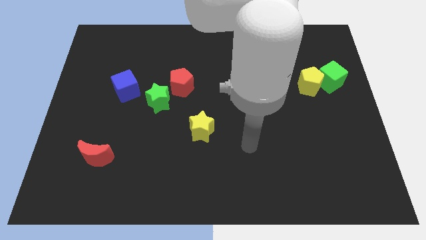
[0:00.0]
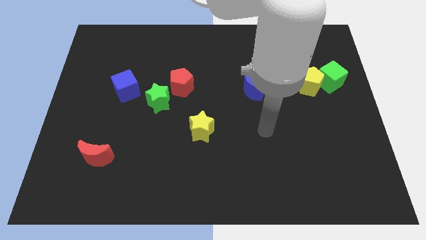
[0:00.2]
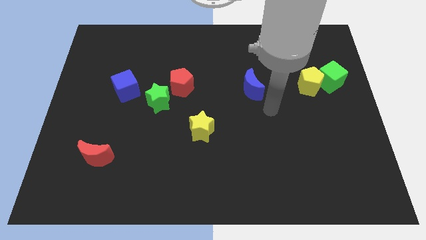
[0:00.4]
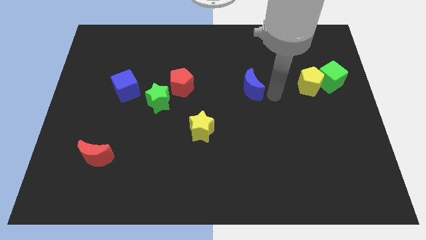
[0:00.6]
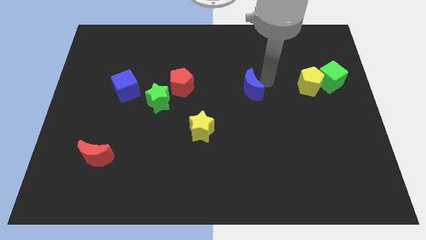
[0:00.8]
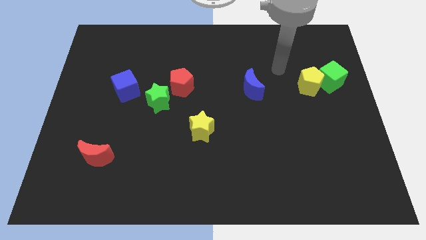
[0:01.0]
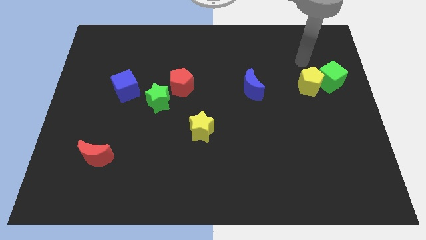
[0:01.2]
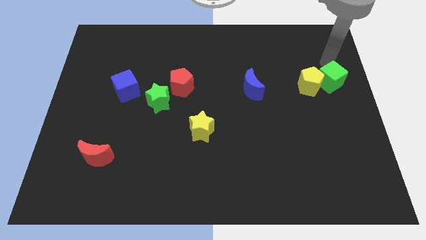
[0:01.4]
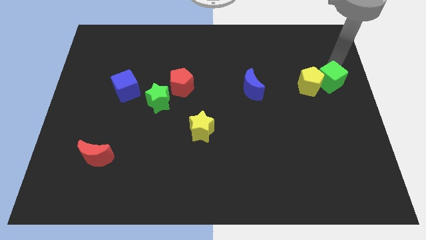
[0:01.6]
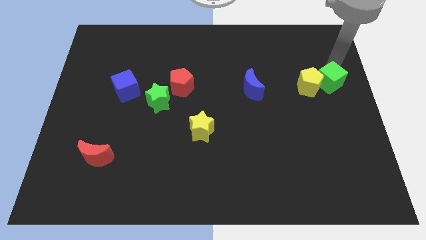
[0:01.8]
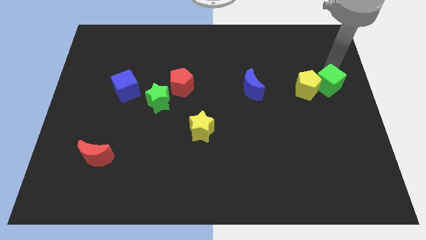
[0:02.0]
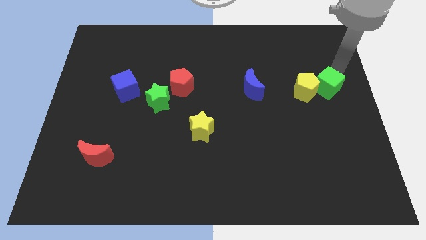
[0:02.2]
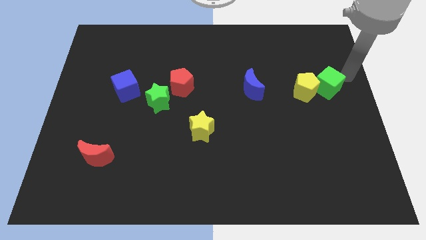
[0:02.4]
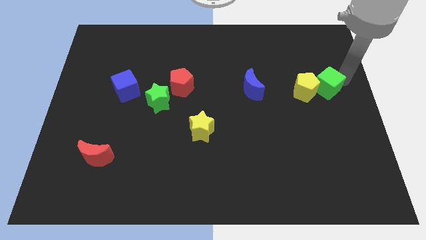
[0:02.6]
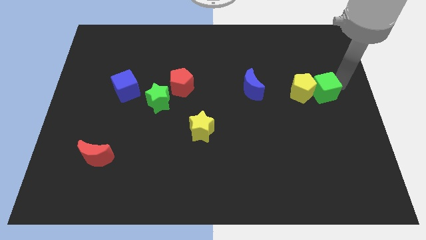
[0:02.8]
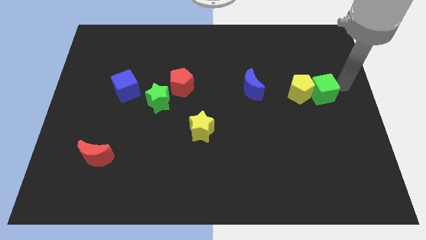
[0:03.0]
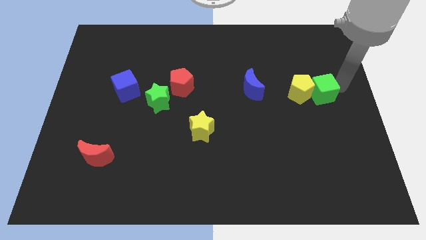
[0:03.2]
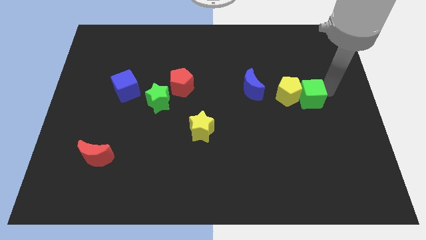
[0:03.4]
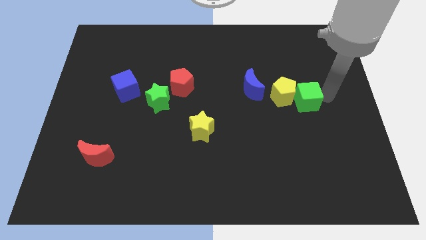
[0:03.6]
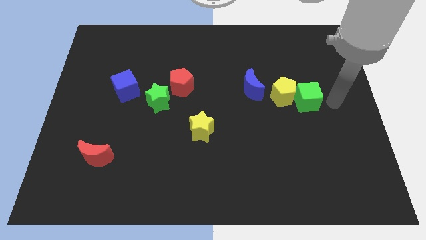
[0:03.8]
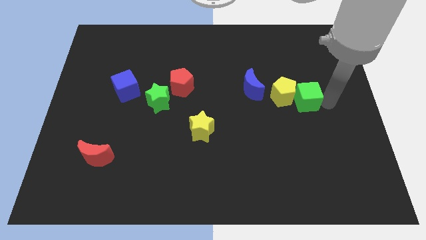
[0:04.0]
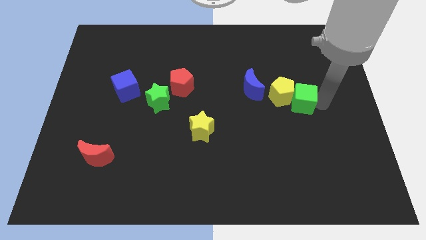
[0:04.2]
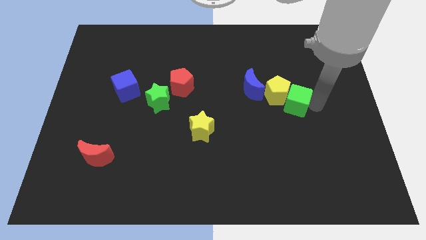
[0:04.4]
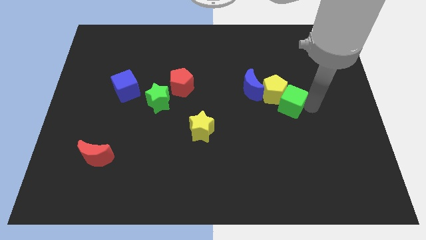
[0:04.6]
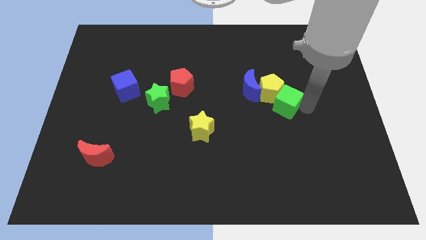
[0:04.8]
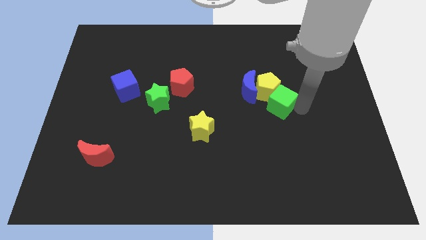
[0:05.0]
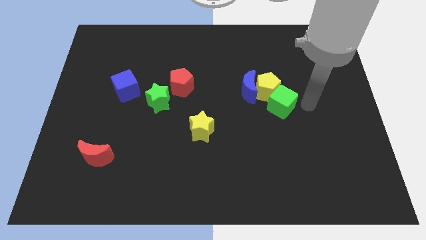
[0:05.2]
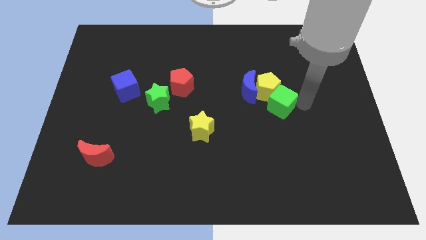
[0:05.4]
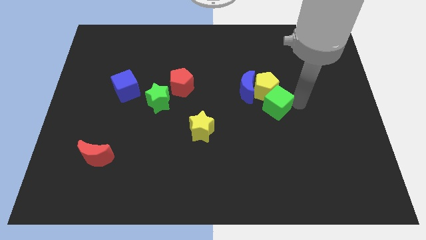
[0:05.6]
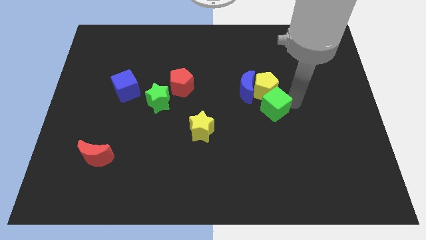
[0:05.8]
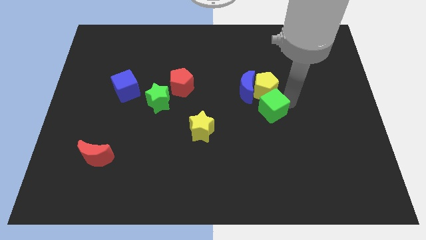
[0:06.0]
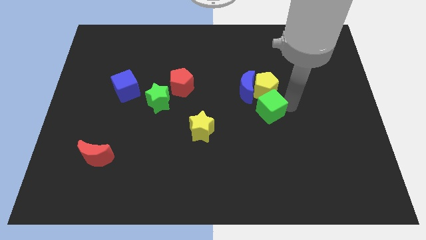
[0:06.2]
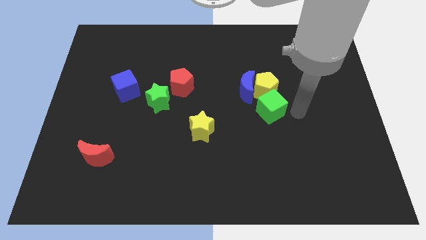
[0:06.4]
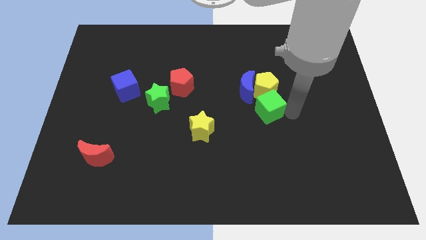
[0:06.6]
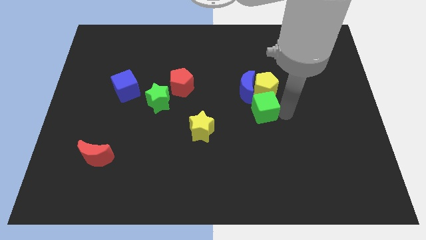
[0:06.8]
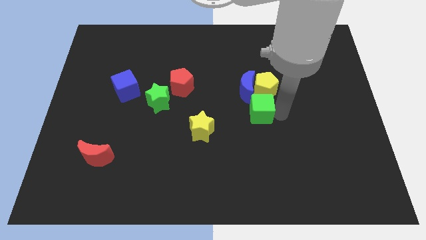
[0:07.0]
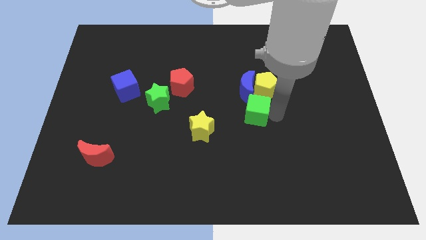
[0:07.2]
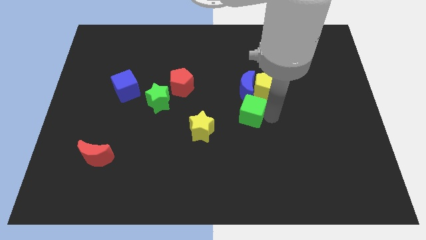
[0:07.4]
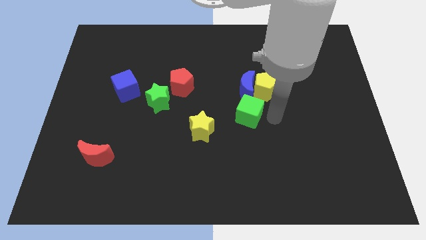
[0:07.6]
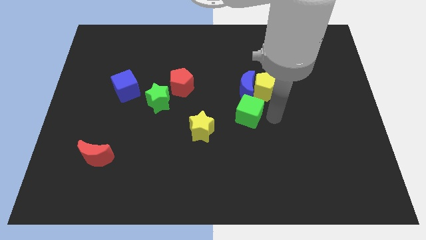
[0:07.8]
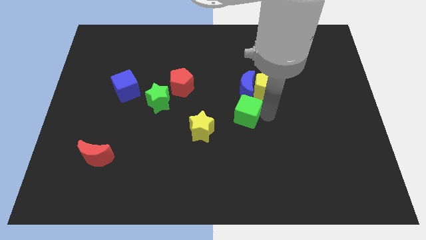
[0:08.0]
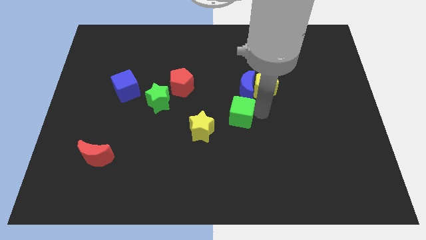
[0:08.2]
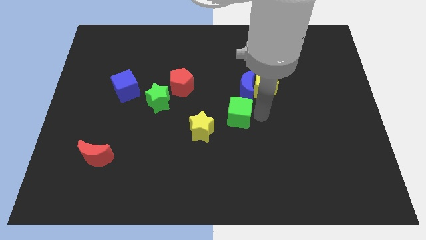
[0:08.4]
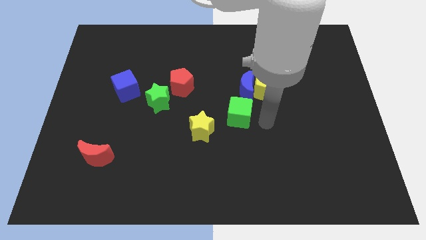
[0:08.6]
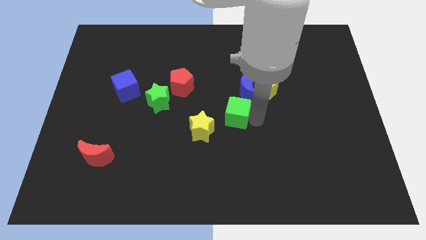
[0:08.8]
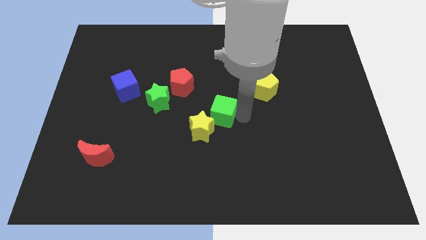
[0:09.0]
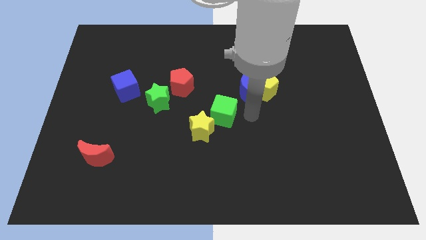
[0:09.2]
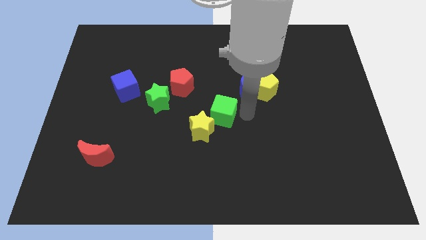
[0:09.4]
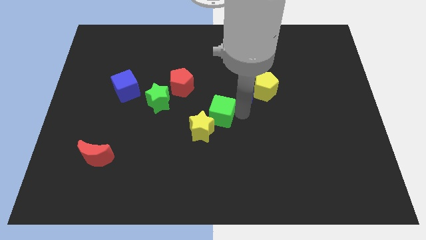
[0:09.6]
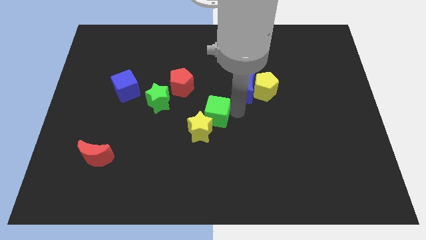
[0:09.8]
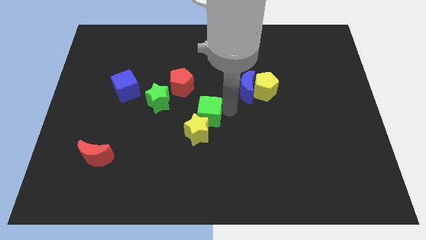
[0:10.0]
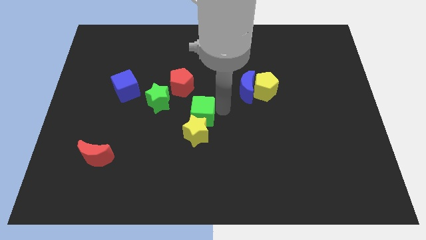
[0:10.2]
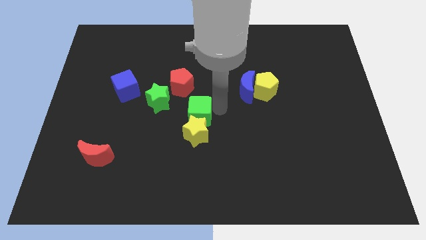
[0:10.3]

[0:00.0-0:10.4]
slide the green cube to the bottom side of the red pentagon

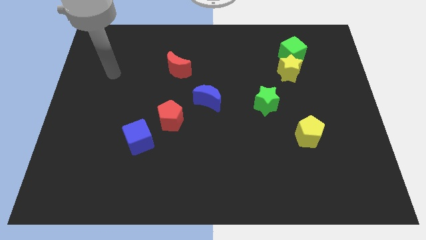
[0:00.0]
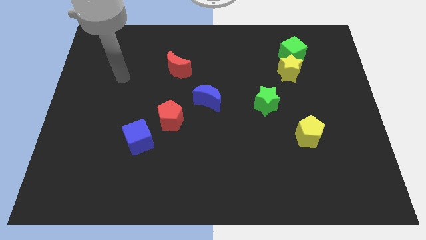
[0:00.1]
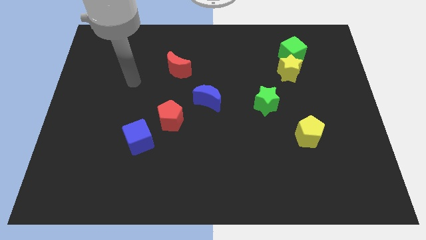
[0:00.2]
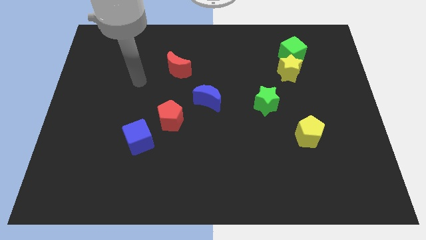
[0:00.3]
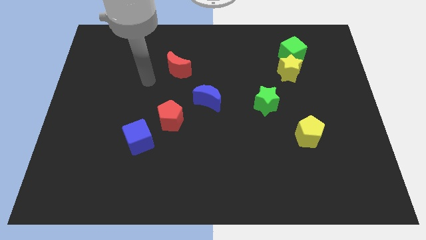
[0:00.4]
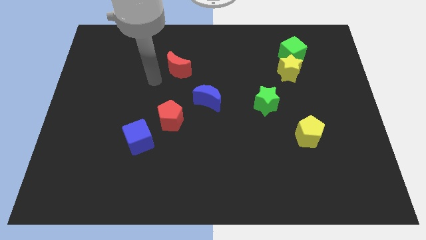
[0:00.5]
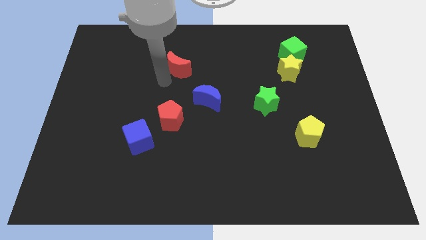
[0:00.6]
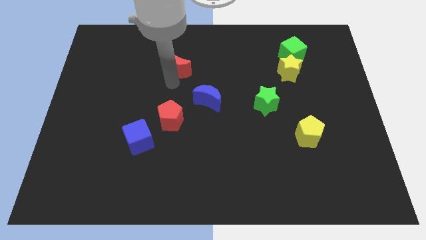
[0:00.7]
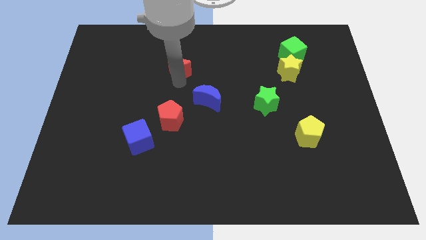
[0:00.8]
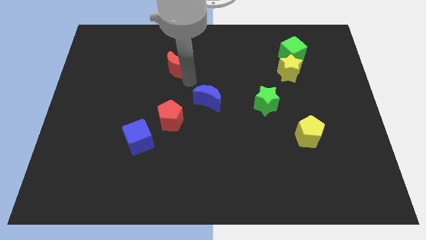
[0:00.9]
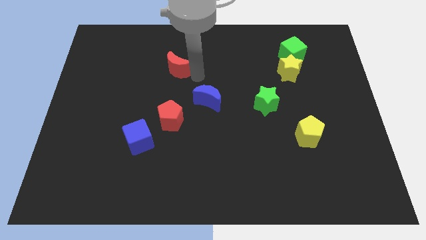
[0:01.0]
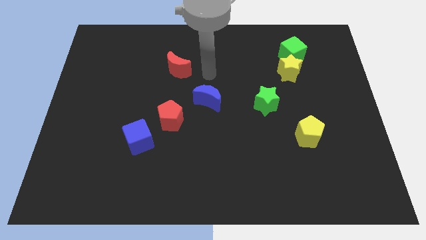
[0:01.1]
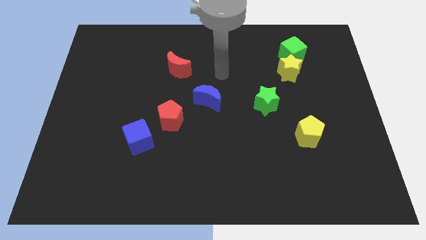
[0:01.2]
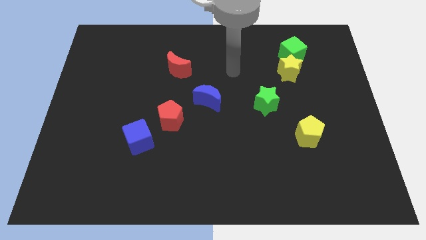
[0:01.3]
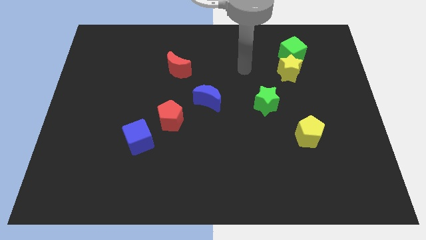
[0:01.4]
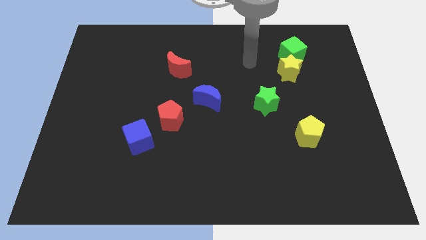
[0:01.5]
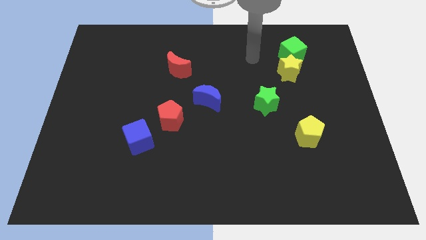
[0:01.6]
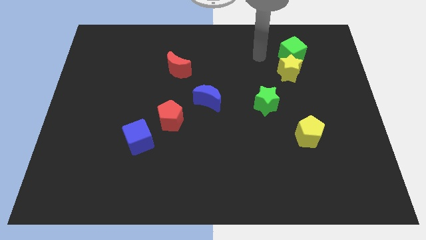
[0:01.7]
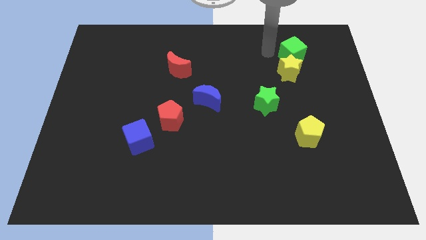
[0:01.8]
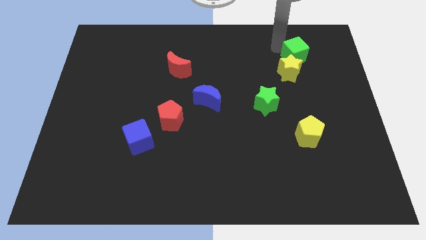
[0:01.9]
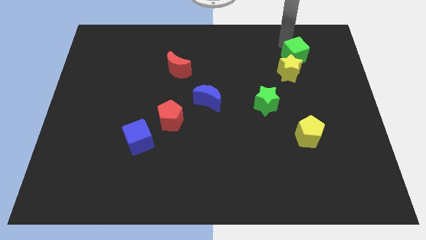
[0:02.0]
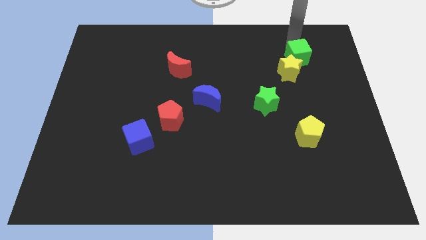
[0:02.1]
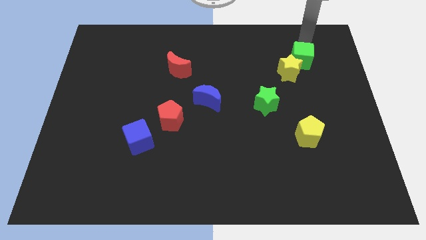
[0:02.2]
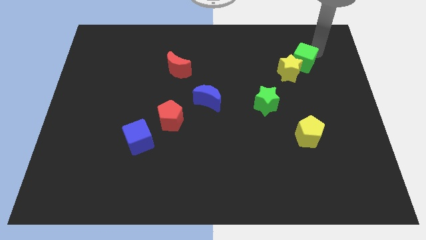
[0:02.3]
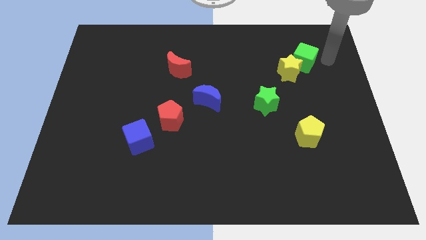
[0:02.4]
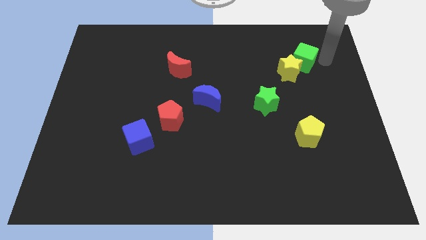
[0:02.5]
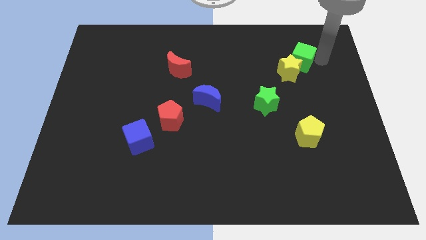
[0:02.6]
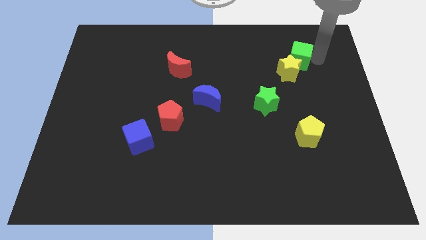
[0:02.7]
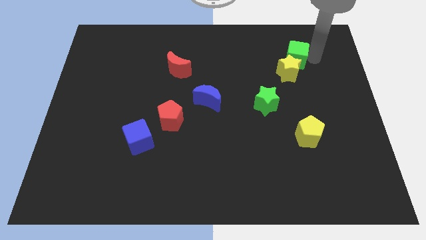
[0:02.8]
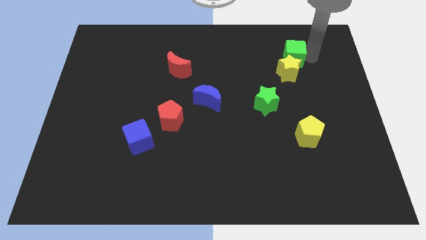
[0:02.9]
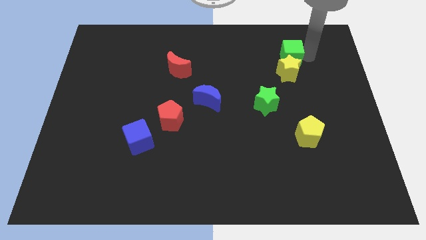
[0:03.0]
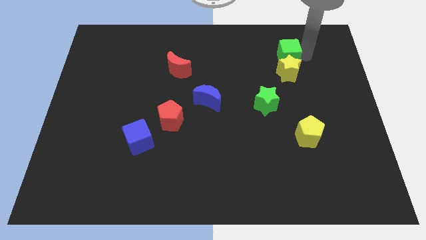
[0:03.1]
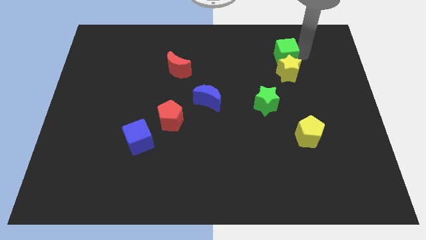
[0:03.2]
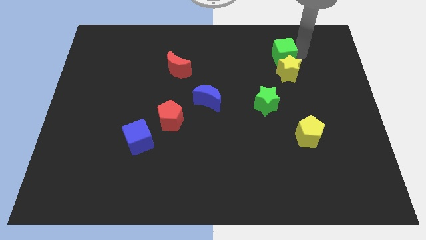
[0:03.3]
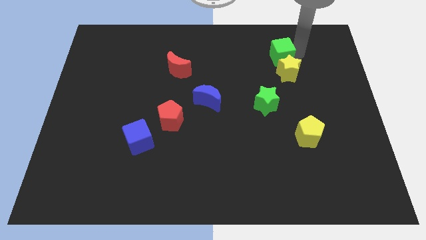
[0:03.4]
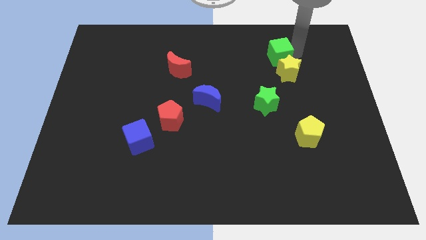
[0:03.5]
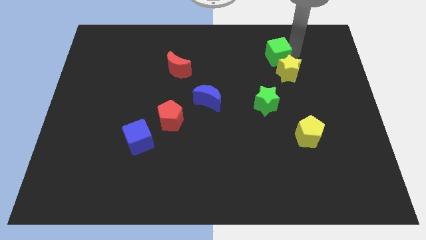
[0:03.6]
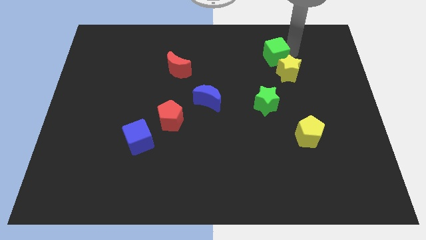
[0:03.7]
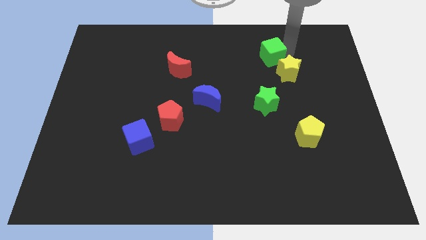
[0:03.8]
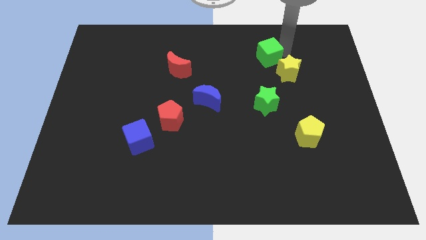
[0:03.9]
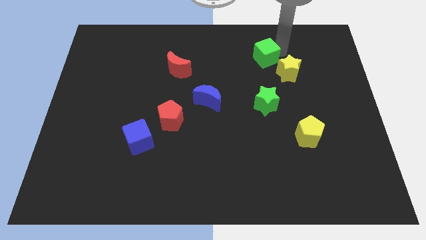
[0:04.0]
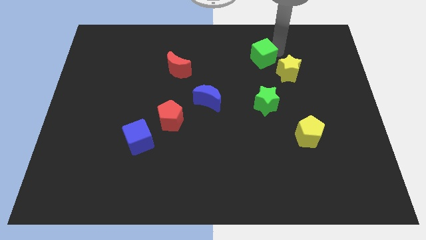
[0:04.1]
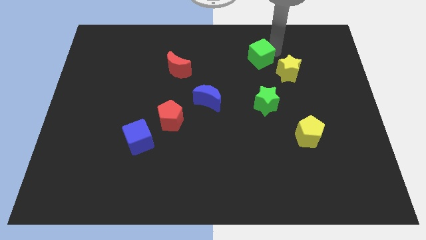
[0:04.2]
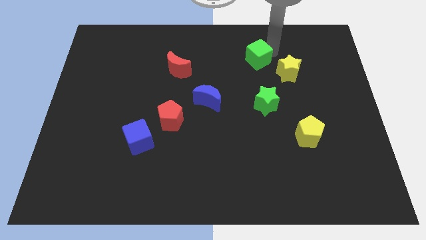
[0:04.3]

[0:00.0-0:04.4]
put the green cube just left of the yellow star
